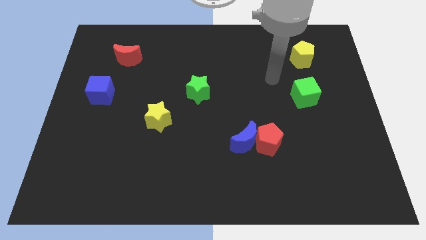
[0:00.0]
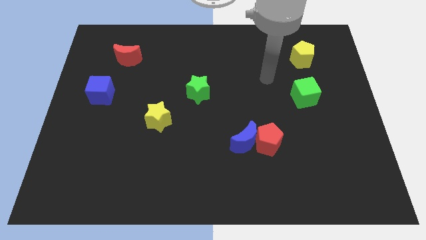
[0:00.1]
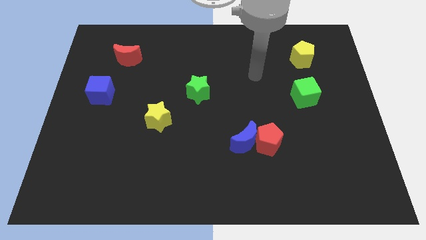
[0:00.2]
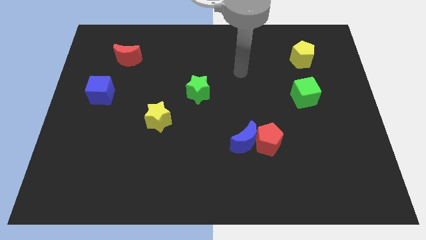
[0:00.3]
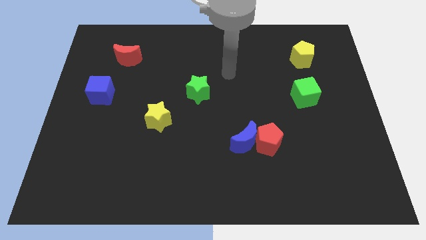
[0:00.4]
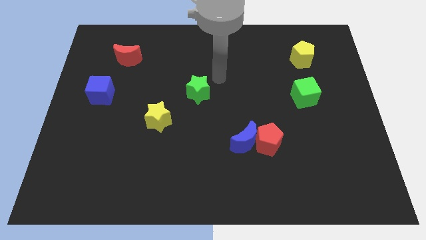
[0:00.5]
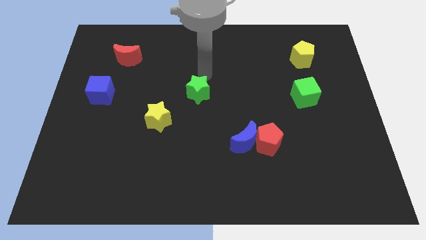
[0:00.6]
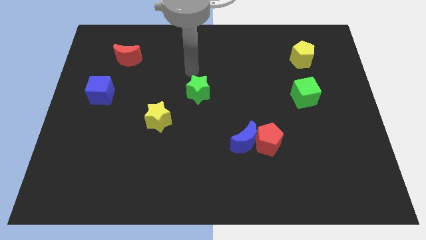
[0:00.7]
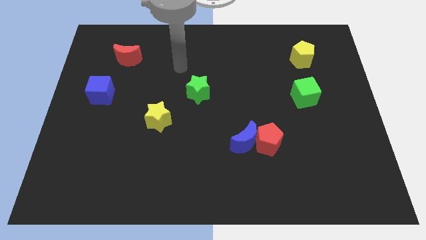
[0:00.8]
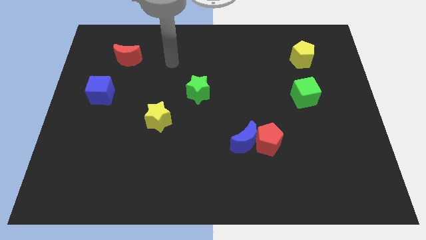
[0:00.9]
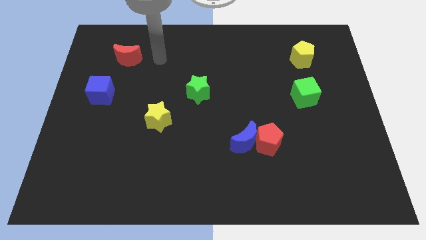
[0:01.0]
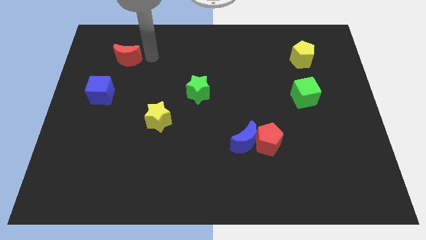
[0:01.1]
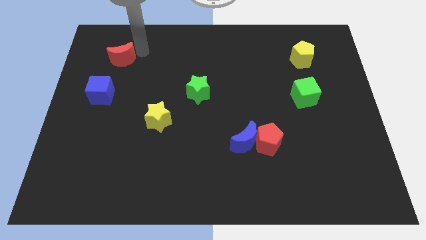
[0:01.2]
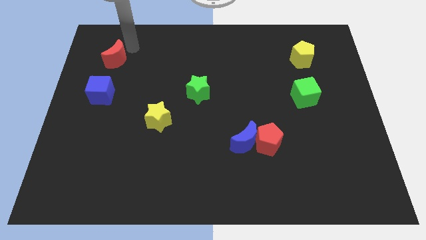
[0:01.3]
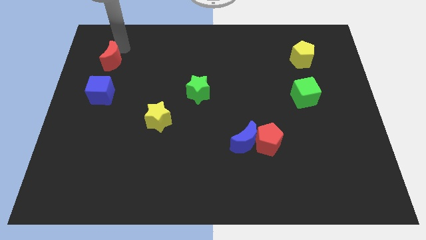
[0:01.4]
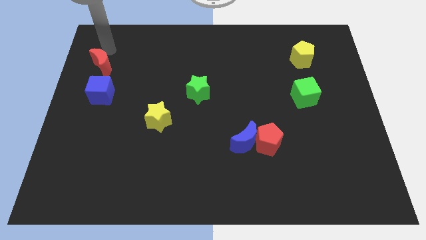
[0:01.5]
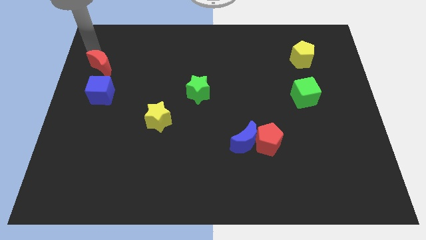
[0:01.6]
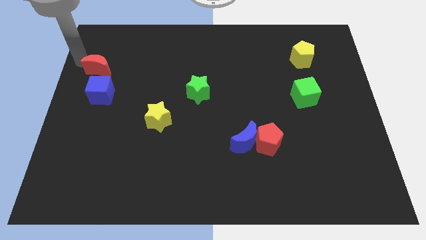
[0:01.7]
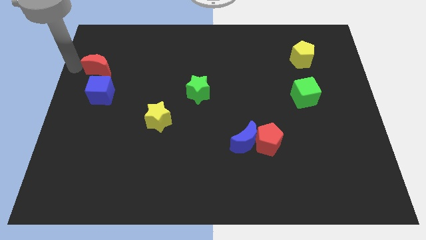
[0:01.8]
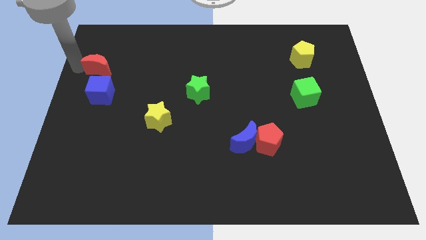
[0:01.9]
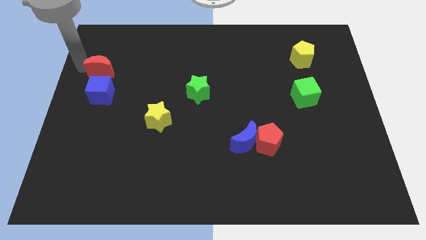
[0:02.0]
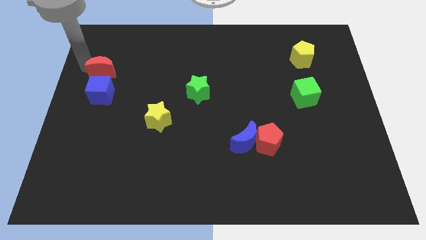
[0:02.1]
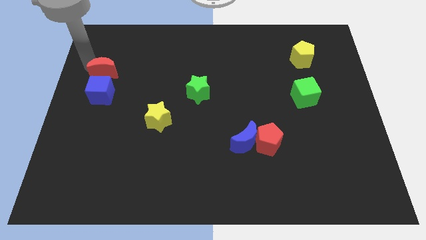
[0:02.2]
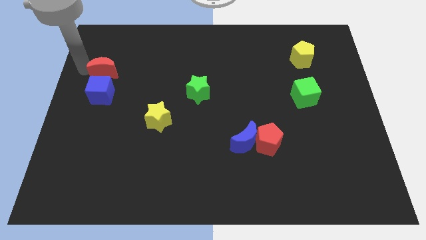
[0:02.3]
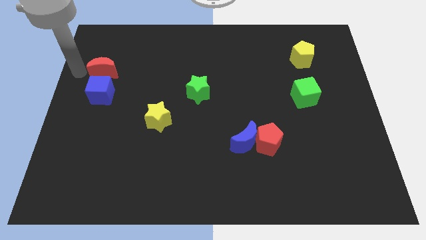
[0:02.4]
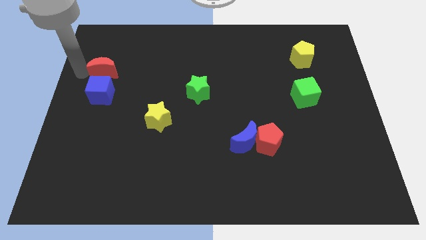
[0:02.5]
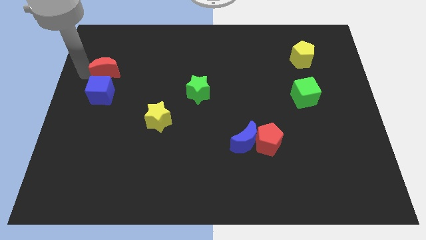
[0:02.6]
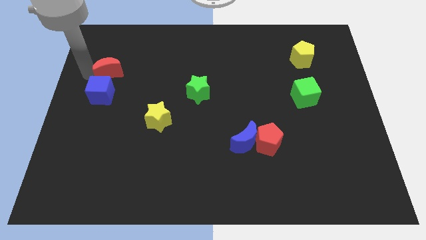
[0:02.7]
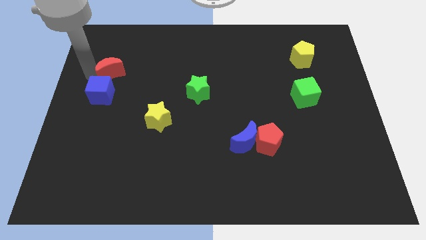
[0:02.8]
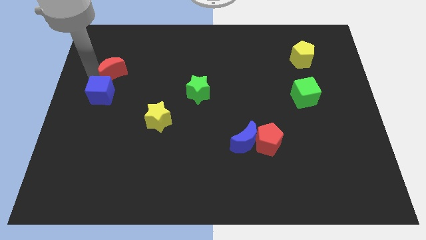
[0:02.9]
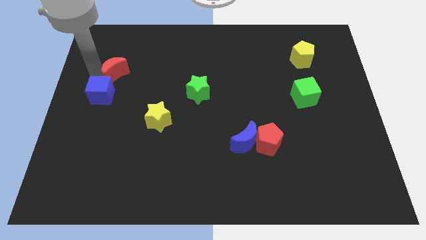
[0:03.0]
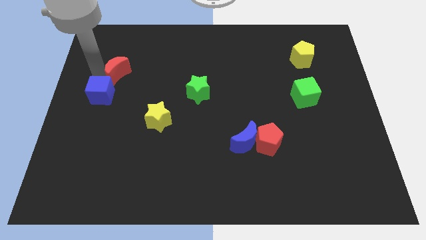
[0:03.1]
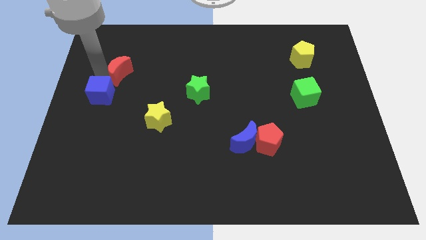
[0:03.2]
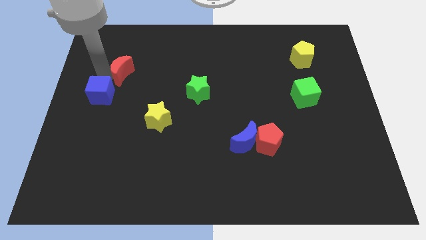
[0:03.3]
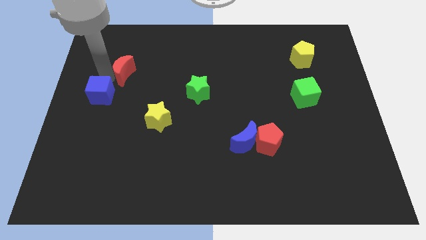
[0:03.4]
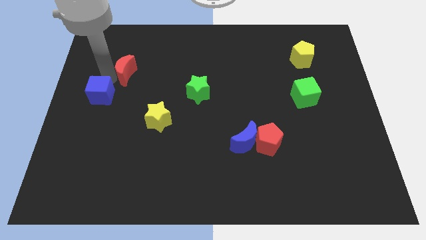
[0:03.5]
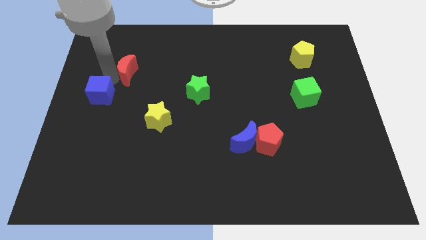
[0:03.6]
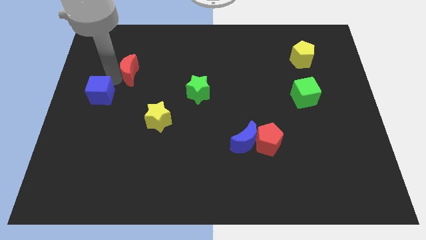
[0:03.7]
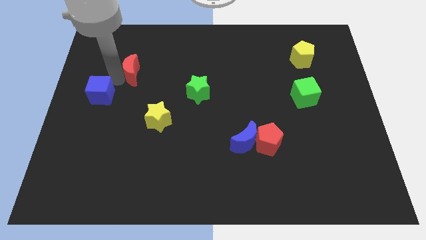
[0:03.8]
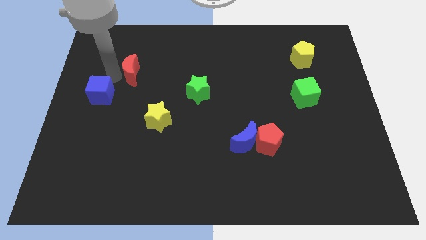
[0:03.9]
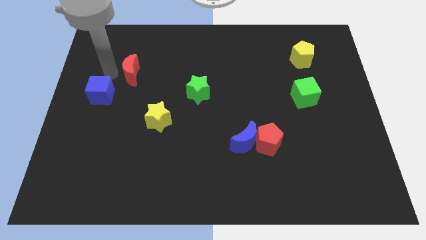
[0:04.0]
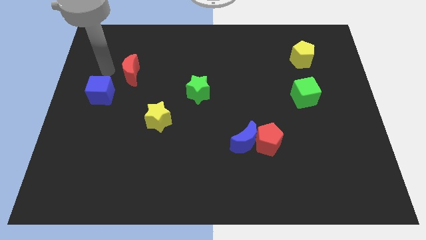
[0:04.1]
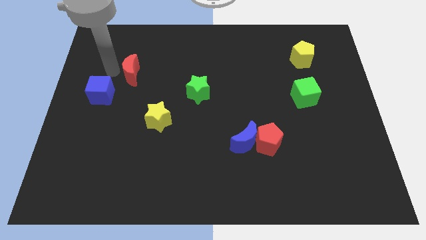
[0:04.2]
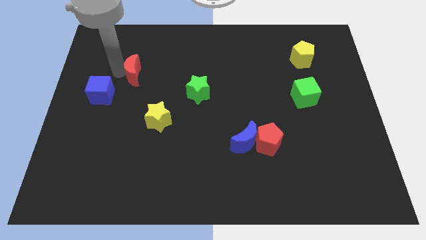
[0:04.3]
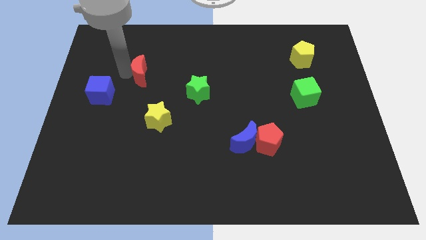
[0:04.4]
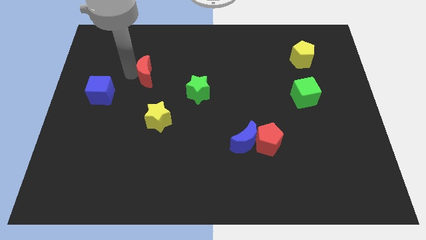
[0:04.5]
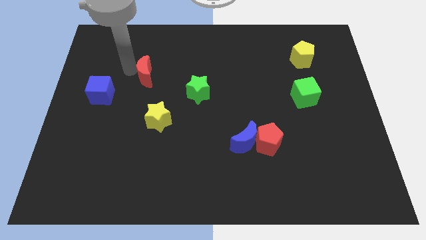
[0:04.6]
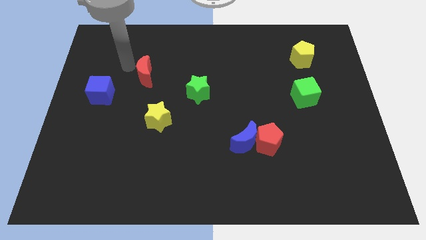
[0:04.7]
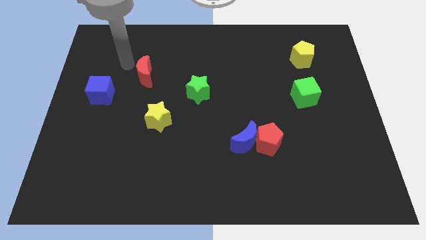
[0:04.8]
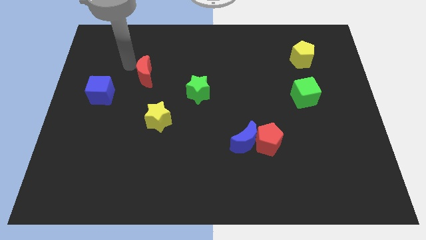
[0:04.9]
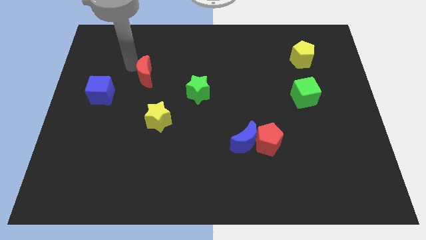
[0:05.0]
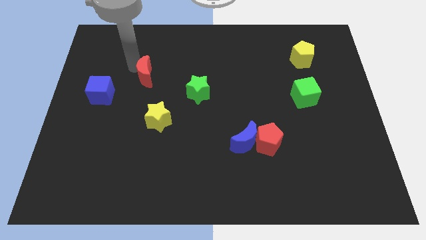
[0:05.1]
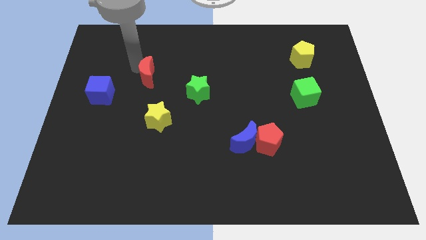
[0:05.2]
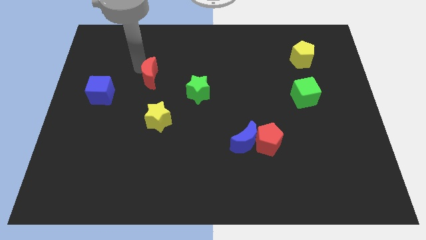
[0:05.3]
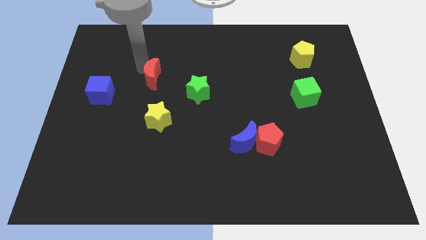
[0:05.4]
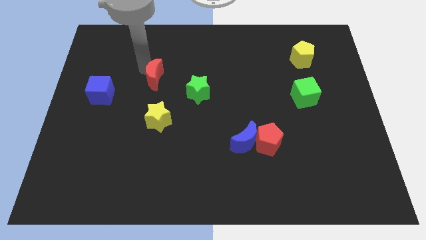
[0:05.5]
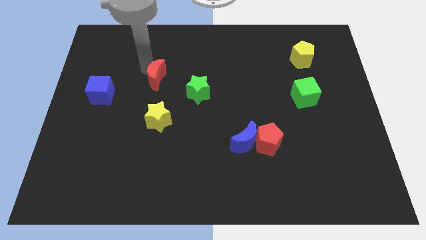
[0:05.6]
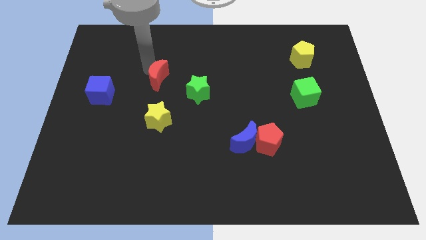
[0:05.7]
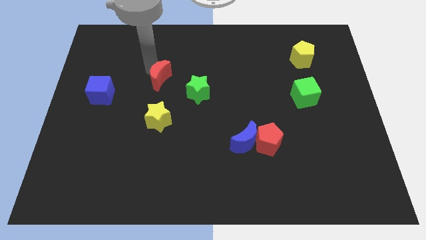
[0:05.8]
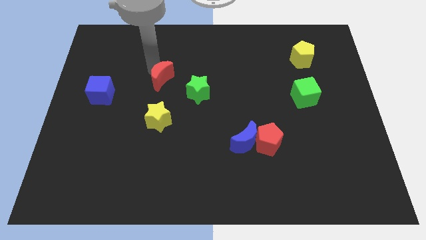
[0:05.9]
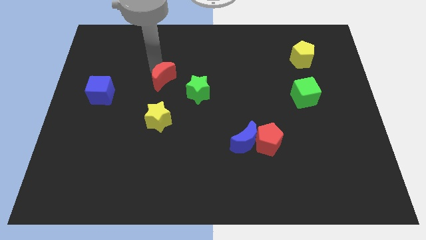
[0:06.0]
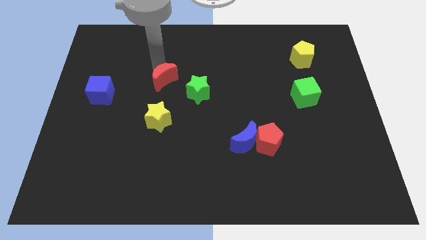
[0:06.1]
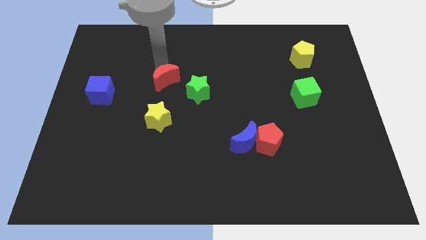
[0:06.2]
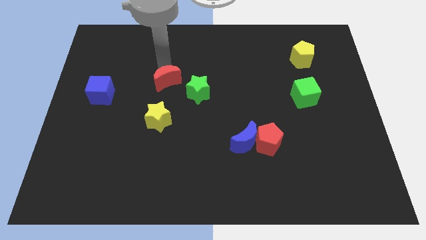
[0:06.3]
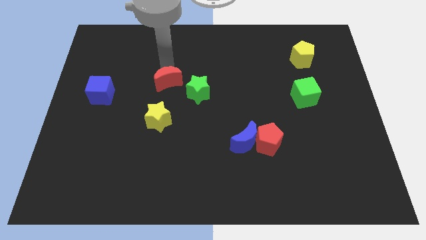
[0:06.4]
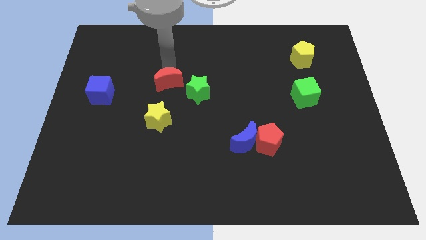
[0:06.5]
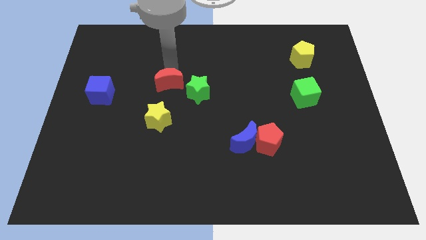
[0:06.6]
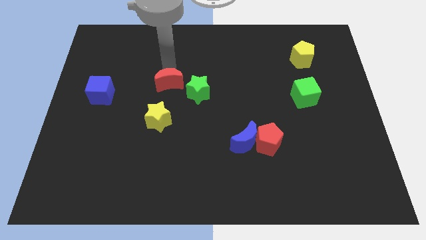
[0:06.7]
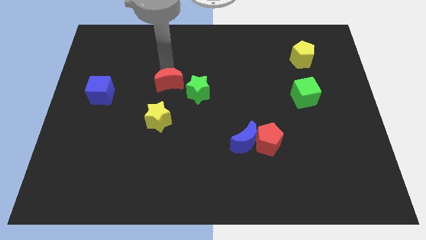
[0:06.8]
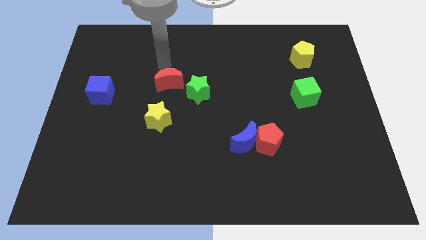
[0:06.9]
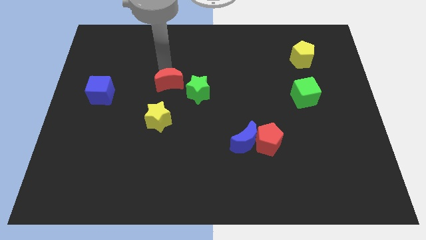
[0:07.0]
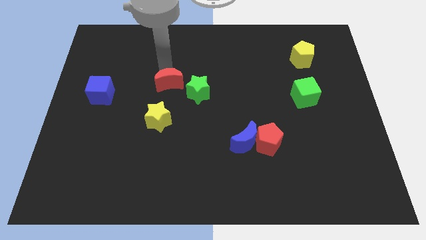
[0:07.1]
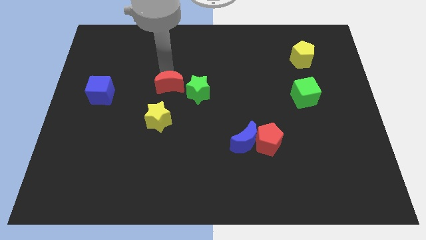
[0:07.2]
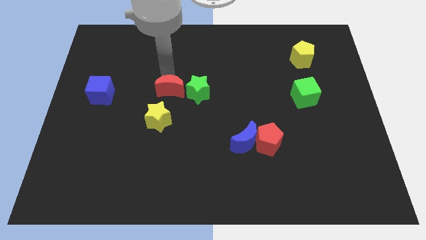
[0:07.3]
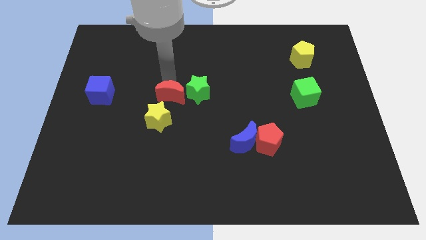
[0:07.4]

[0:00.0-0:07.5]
slide the red moon to the bottom left of the green star
